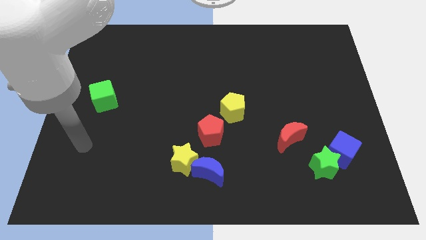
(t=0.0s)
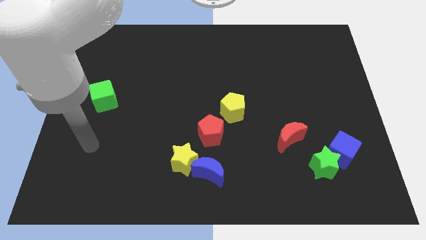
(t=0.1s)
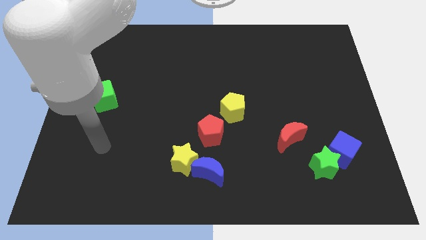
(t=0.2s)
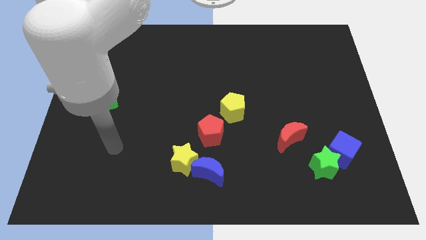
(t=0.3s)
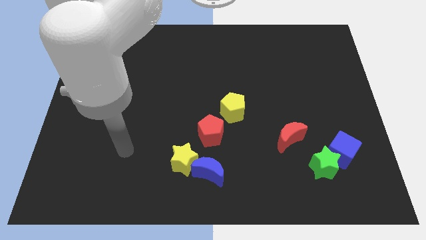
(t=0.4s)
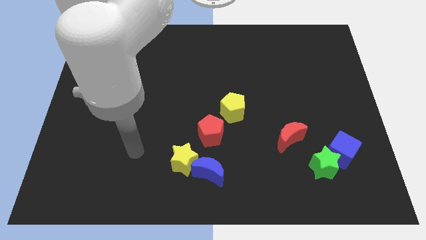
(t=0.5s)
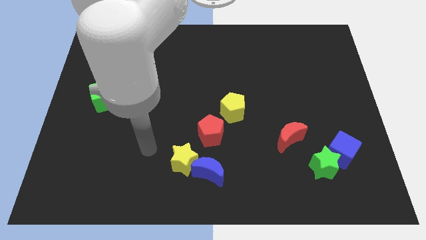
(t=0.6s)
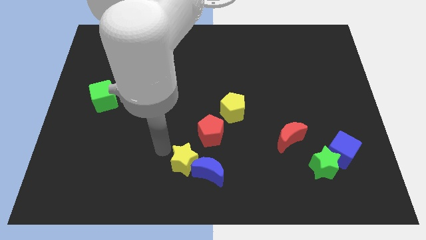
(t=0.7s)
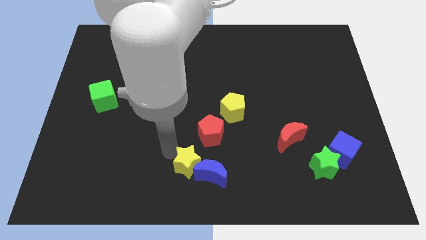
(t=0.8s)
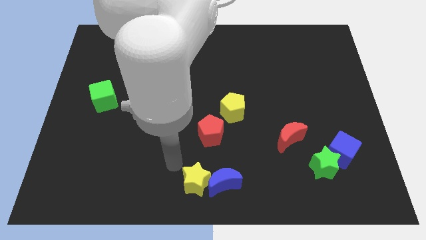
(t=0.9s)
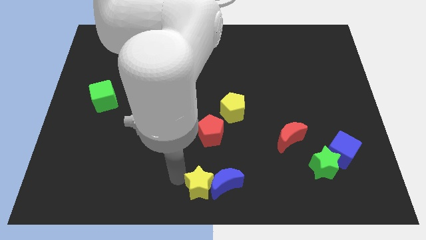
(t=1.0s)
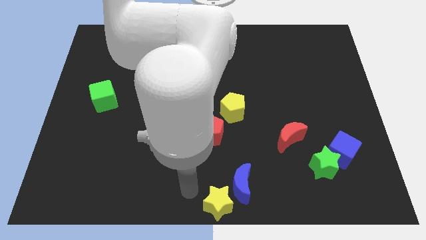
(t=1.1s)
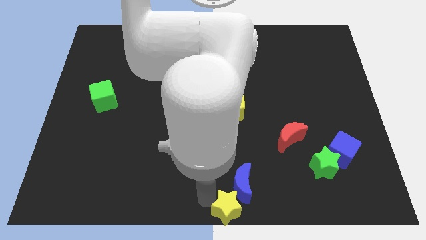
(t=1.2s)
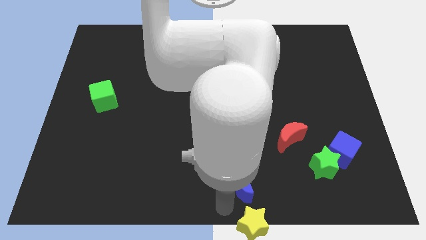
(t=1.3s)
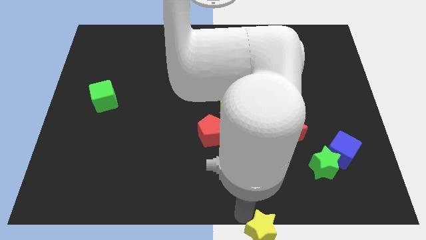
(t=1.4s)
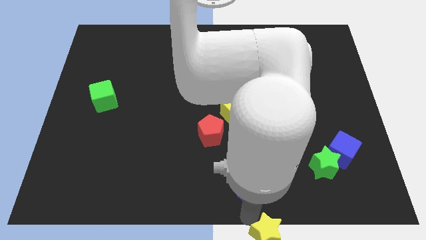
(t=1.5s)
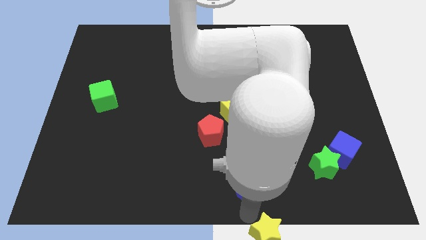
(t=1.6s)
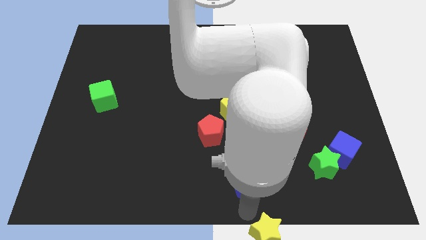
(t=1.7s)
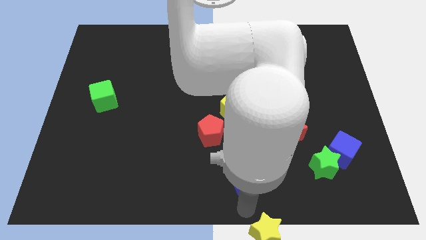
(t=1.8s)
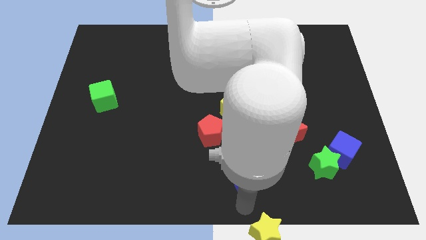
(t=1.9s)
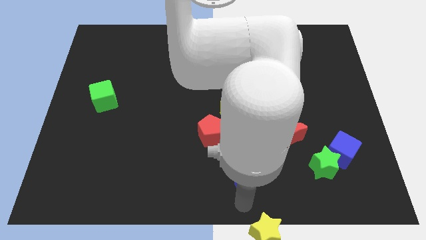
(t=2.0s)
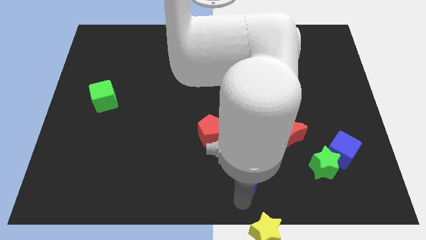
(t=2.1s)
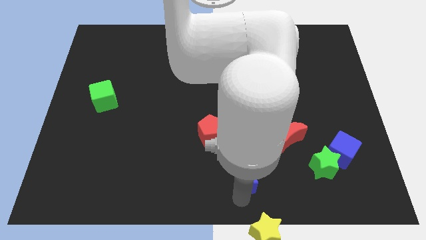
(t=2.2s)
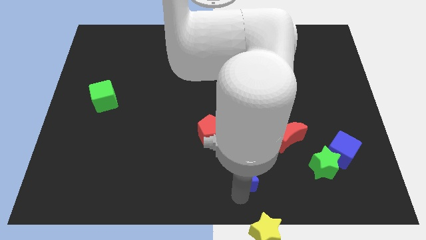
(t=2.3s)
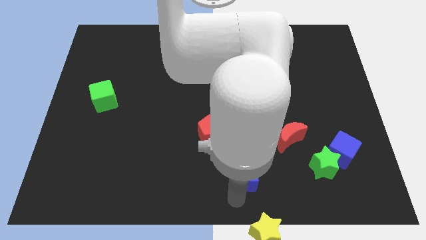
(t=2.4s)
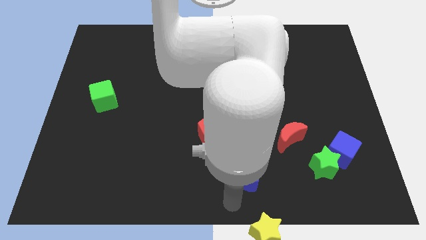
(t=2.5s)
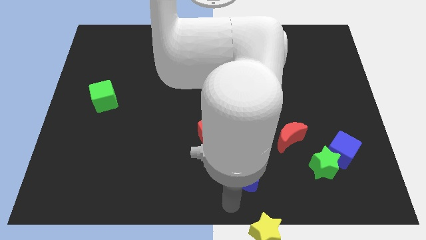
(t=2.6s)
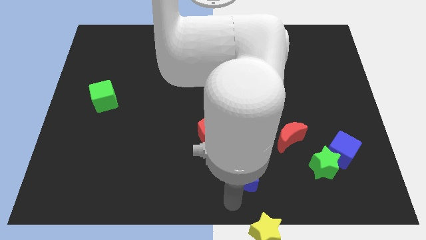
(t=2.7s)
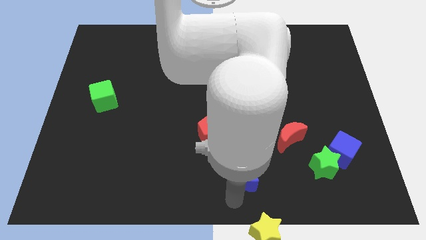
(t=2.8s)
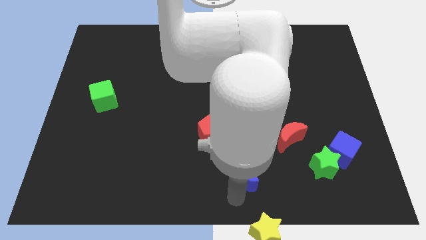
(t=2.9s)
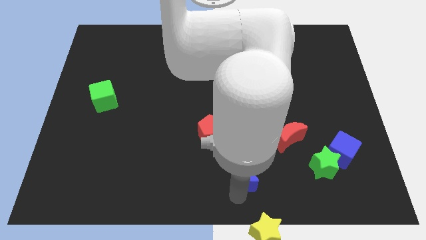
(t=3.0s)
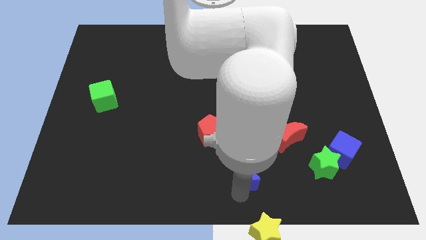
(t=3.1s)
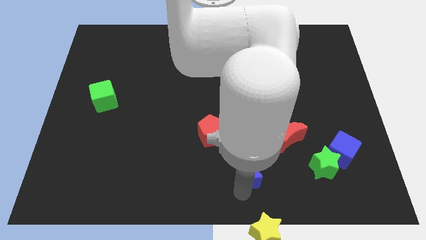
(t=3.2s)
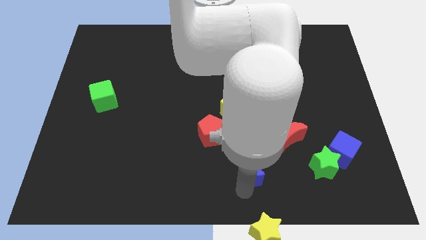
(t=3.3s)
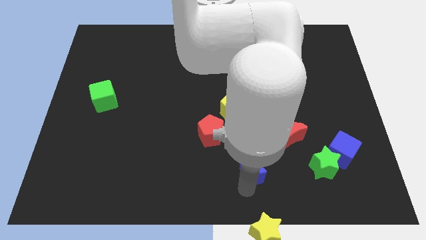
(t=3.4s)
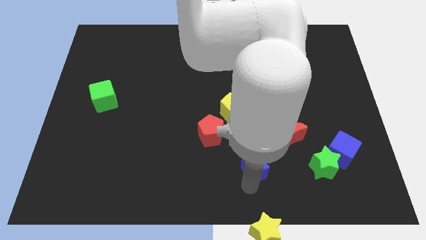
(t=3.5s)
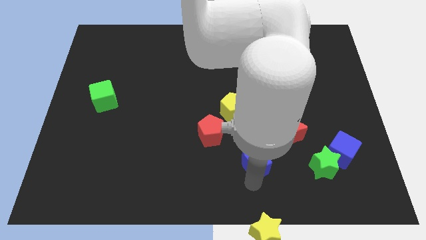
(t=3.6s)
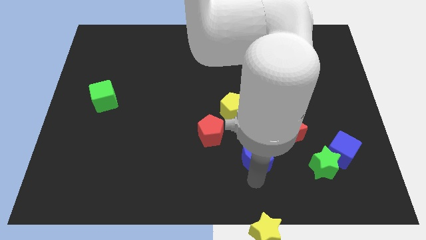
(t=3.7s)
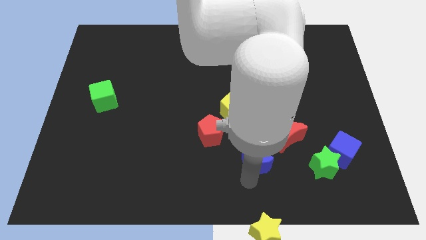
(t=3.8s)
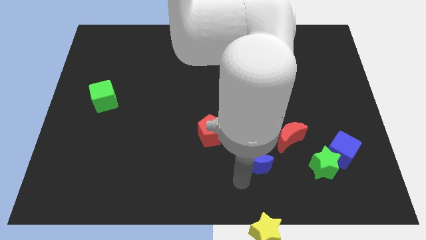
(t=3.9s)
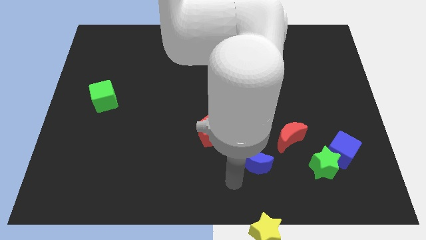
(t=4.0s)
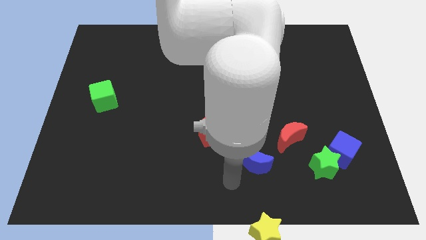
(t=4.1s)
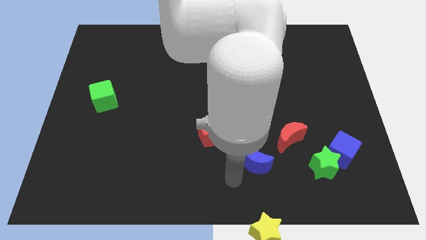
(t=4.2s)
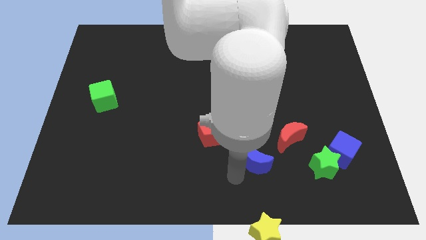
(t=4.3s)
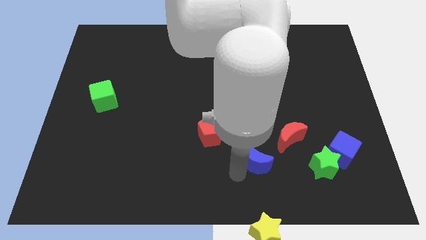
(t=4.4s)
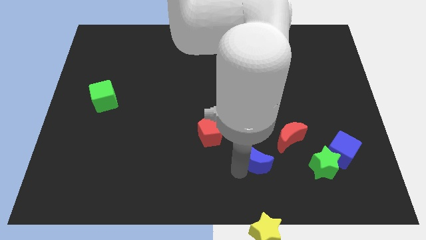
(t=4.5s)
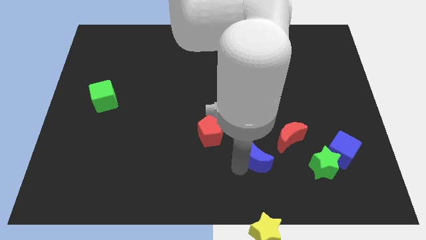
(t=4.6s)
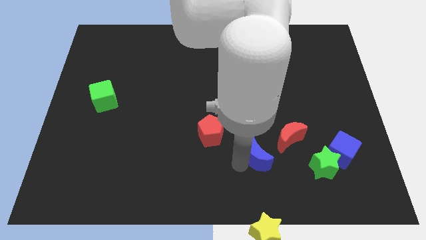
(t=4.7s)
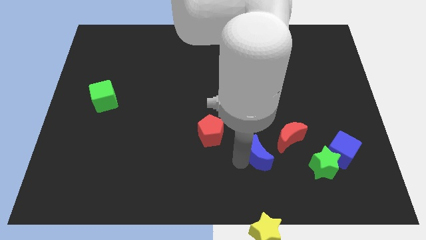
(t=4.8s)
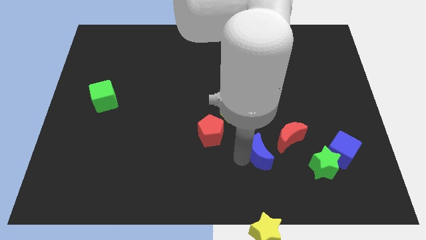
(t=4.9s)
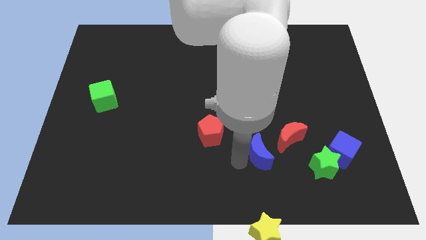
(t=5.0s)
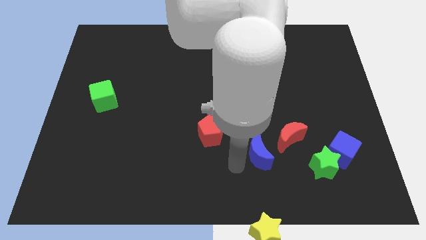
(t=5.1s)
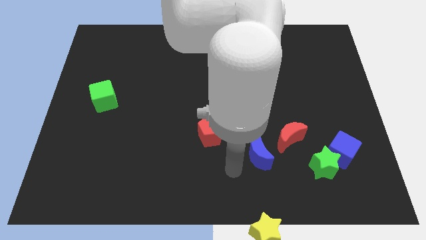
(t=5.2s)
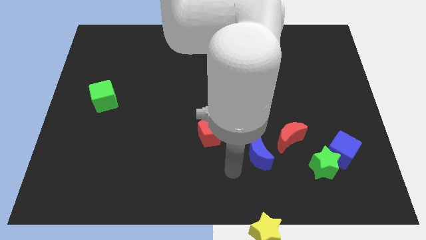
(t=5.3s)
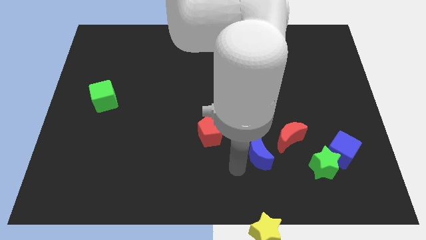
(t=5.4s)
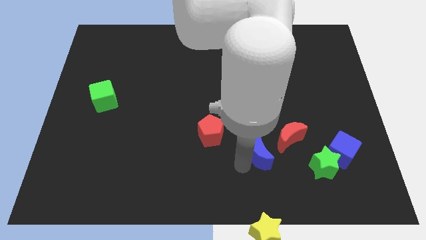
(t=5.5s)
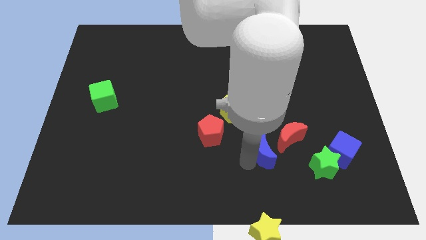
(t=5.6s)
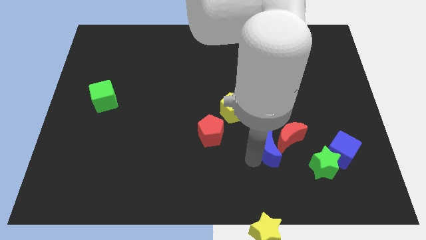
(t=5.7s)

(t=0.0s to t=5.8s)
move the blue moon to the red moon

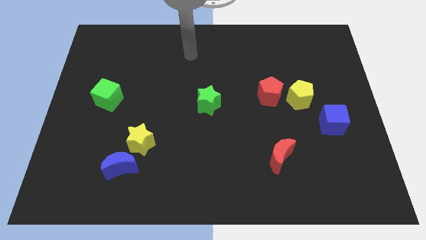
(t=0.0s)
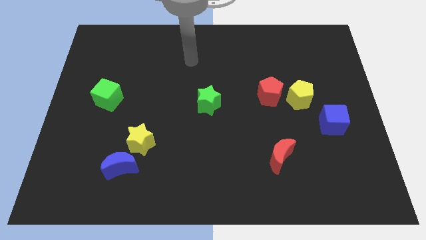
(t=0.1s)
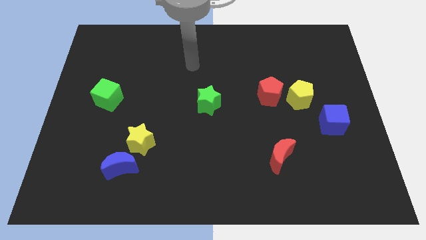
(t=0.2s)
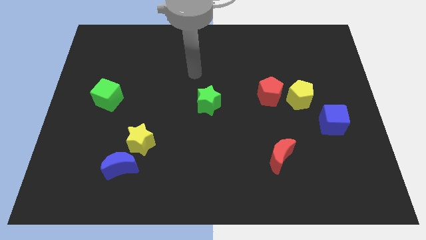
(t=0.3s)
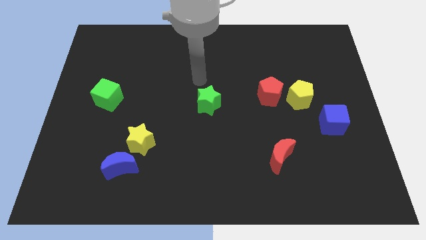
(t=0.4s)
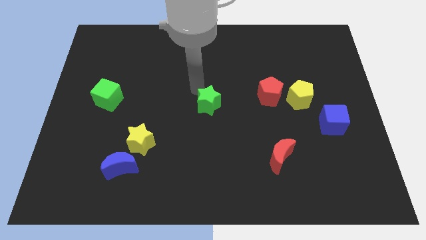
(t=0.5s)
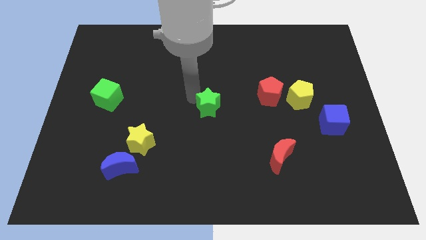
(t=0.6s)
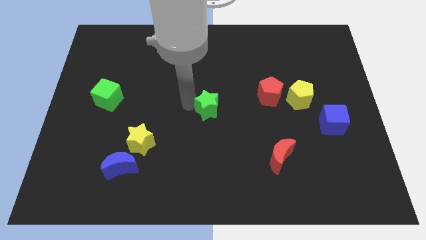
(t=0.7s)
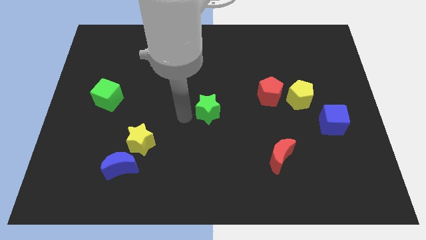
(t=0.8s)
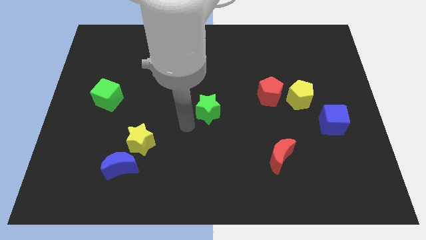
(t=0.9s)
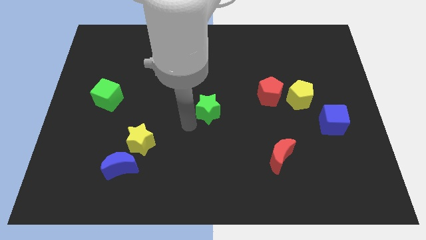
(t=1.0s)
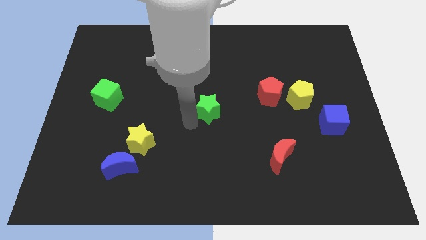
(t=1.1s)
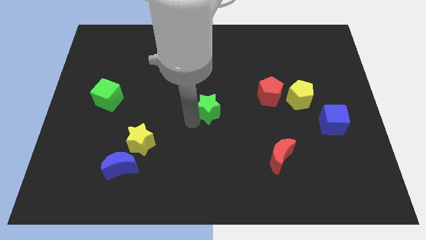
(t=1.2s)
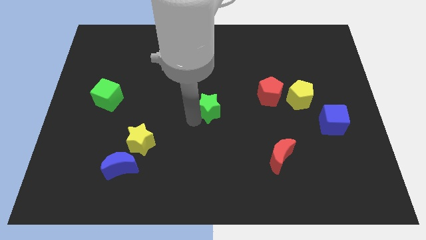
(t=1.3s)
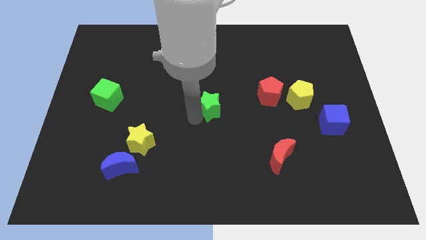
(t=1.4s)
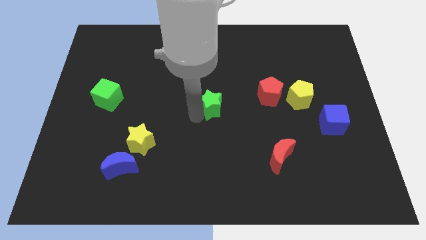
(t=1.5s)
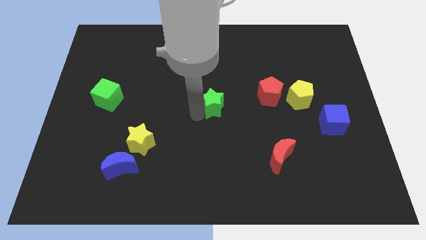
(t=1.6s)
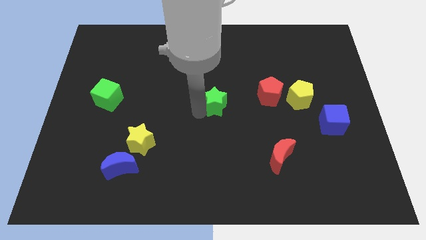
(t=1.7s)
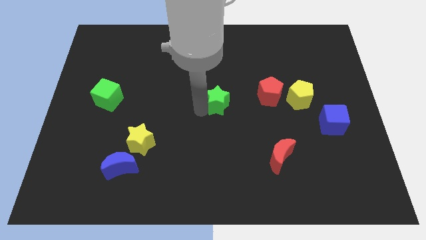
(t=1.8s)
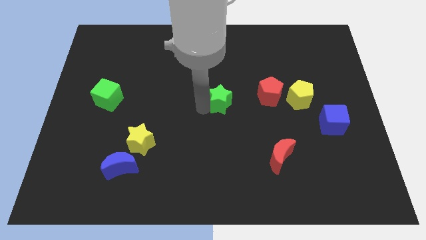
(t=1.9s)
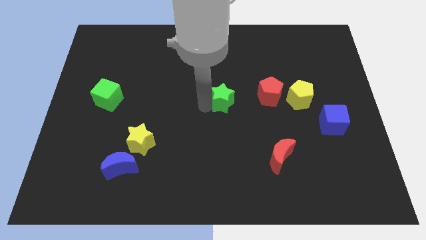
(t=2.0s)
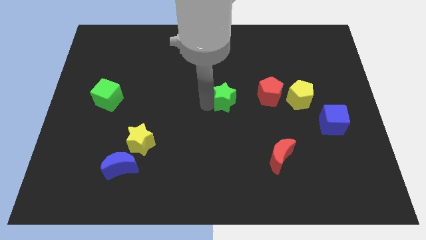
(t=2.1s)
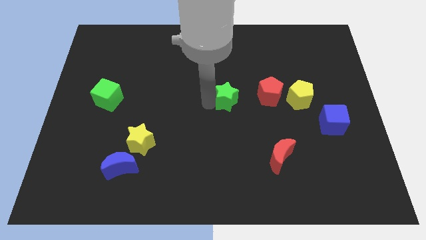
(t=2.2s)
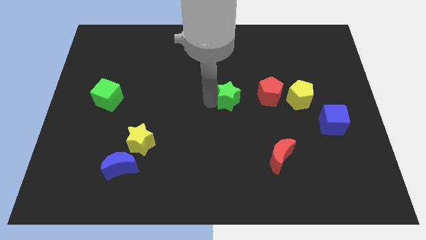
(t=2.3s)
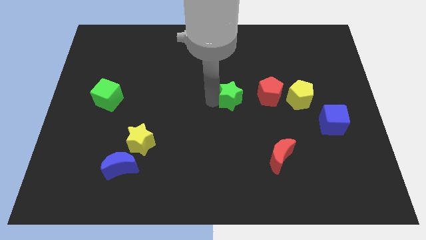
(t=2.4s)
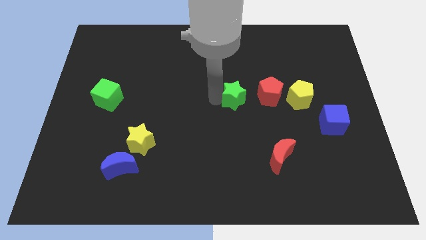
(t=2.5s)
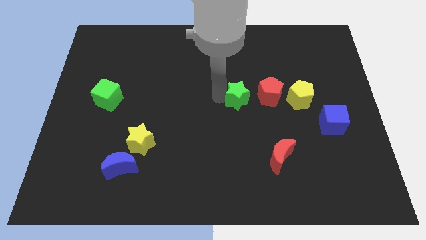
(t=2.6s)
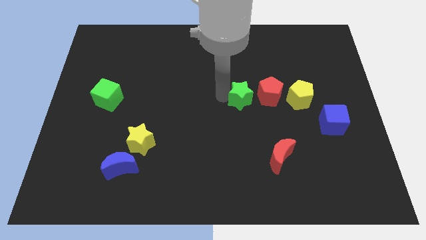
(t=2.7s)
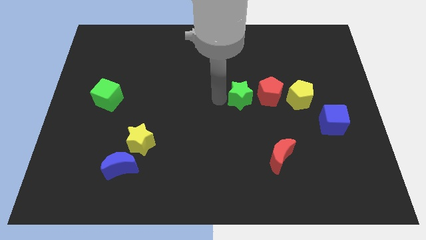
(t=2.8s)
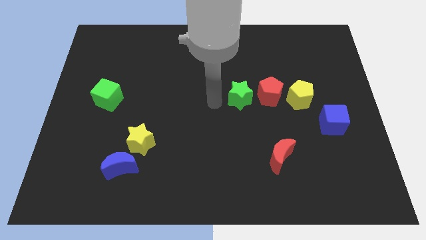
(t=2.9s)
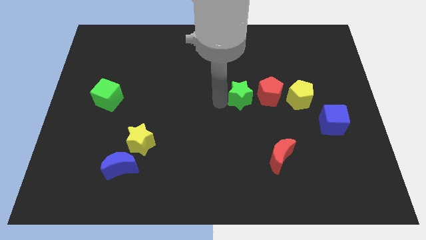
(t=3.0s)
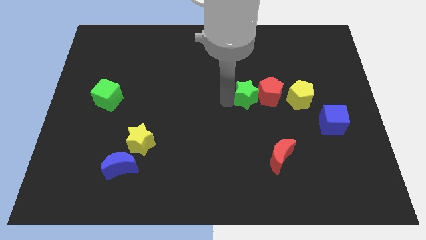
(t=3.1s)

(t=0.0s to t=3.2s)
slide the green star close to the red pentagon
